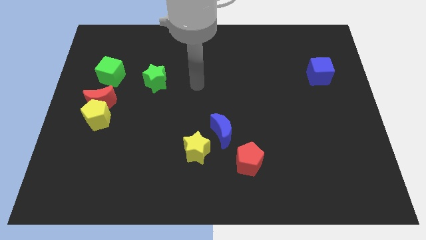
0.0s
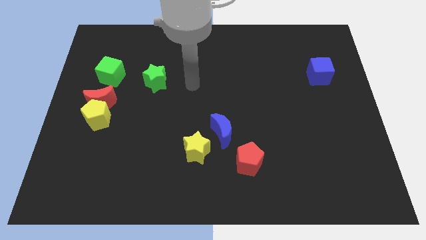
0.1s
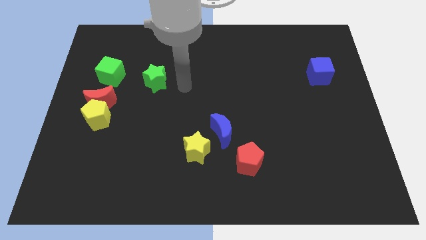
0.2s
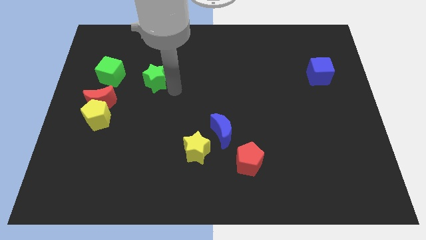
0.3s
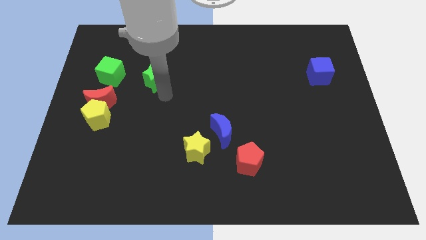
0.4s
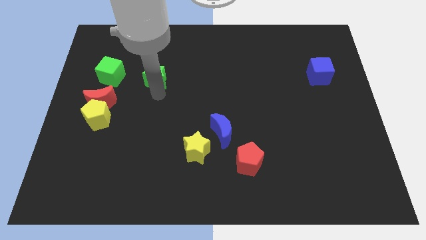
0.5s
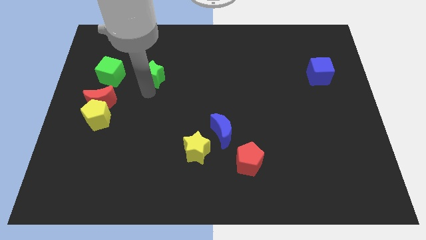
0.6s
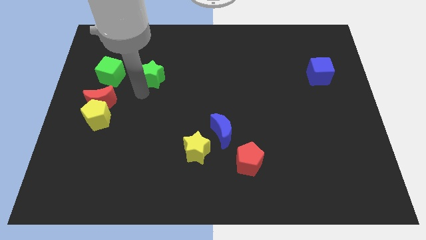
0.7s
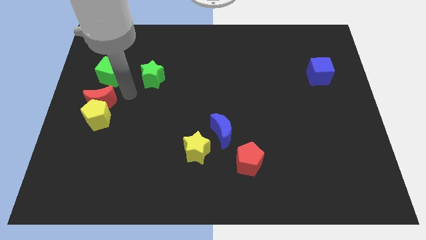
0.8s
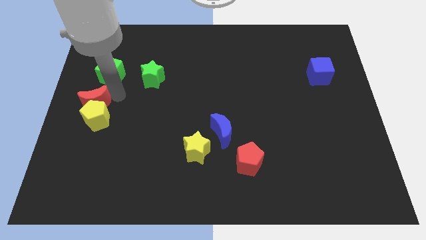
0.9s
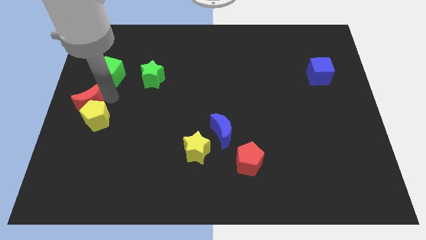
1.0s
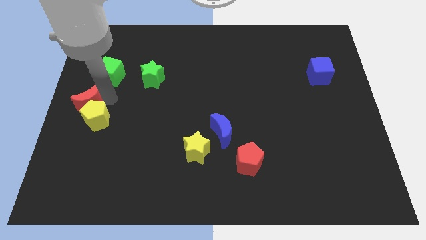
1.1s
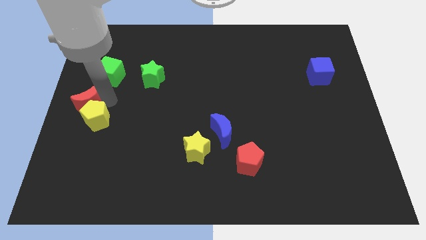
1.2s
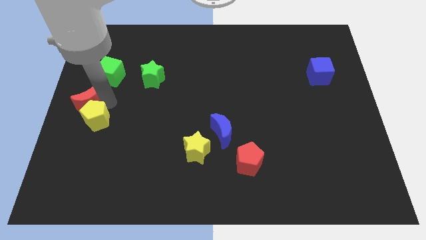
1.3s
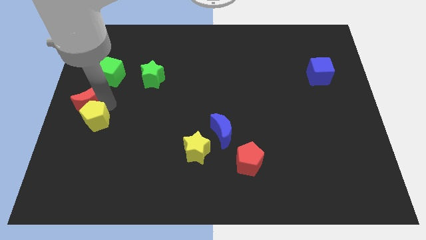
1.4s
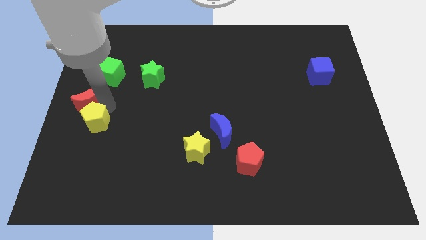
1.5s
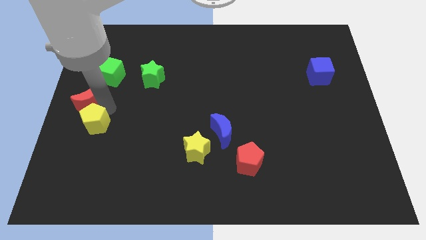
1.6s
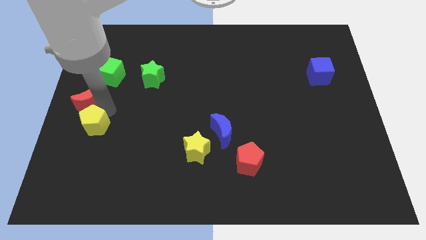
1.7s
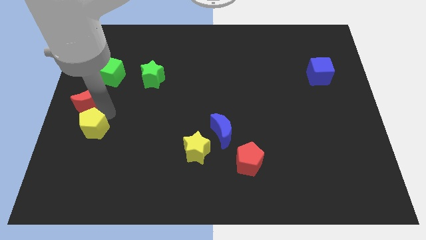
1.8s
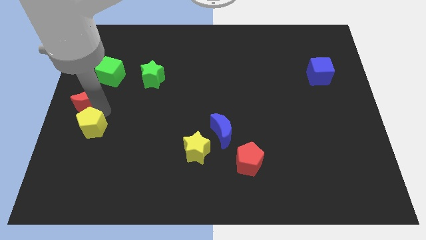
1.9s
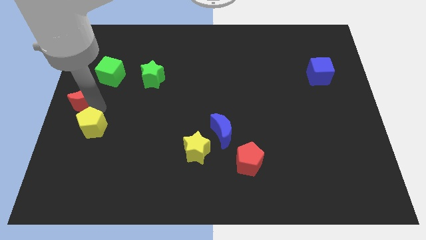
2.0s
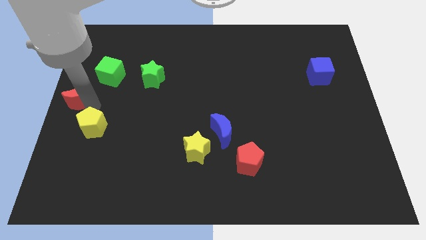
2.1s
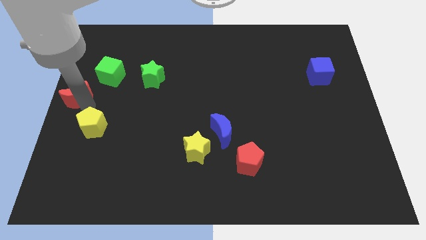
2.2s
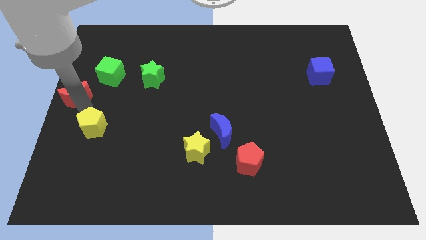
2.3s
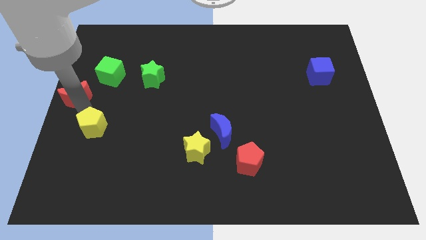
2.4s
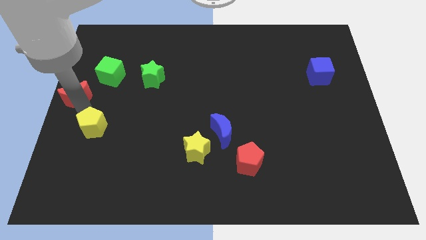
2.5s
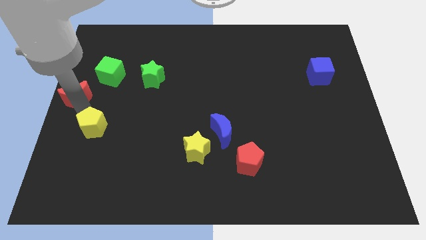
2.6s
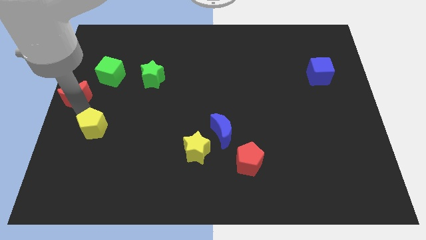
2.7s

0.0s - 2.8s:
pull the yellow pentagon apart from the red moon

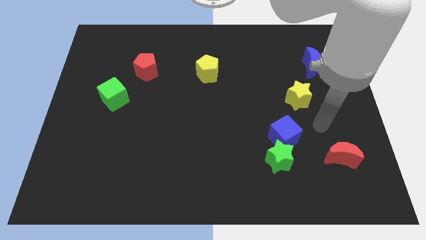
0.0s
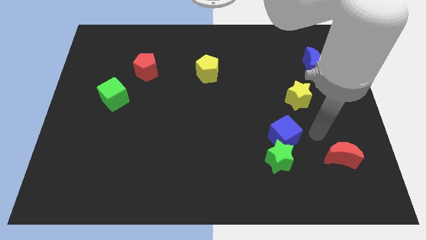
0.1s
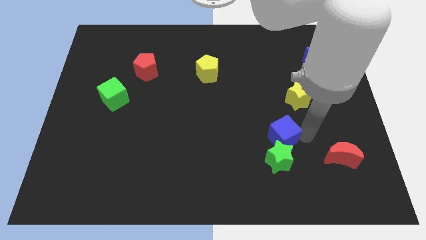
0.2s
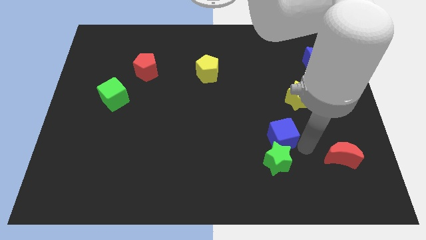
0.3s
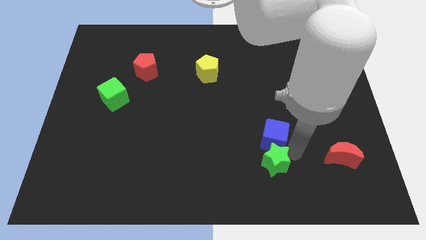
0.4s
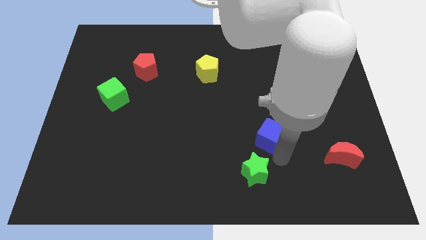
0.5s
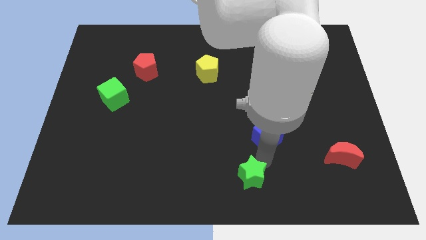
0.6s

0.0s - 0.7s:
move the blue cube away from the green star

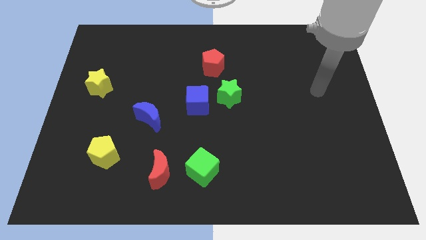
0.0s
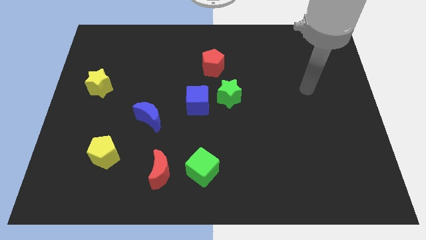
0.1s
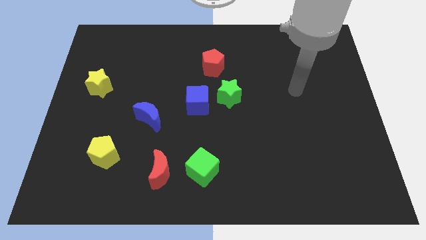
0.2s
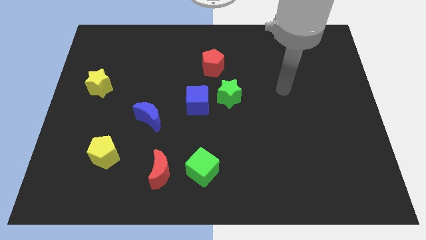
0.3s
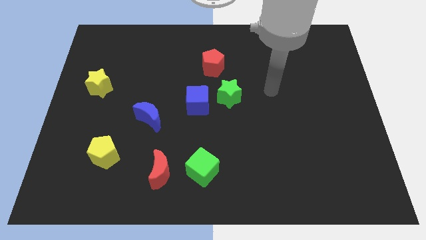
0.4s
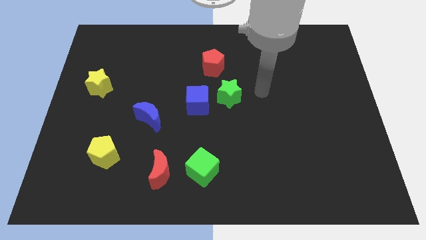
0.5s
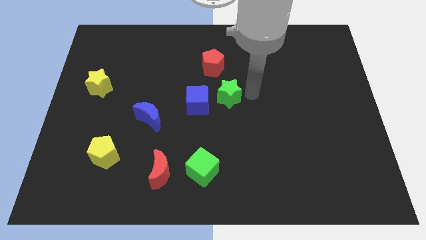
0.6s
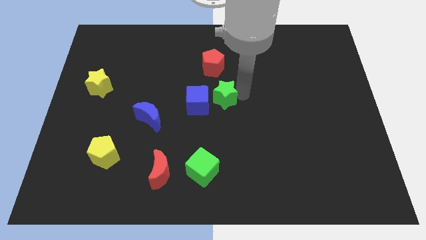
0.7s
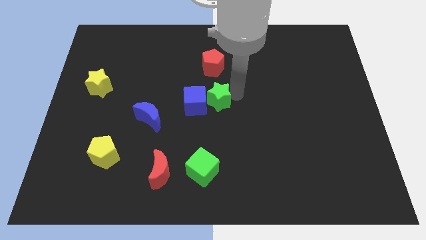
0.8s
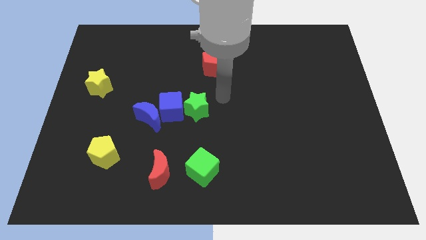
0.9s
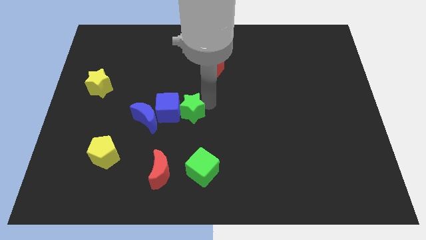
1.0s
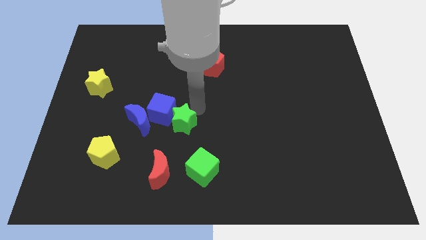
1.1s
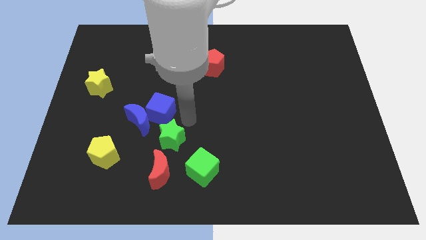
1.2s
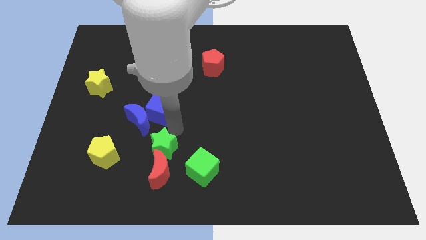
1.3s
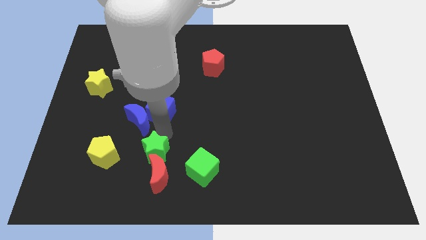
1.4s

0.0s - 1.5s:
separate the blue cube from the green star

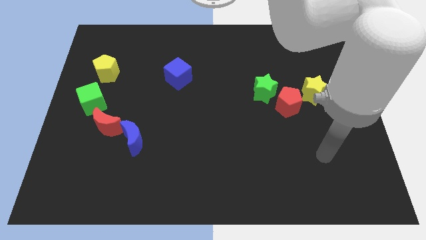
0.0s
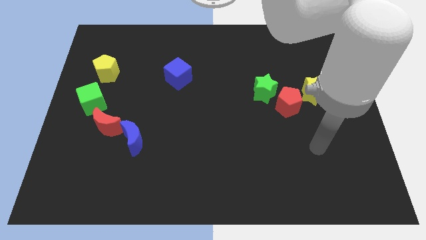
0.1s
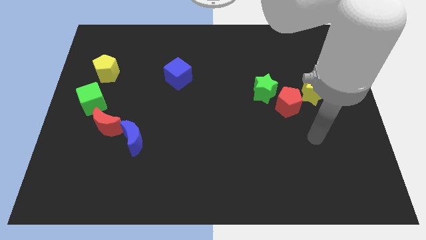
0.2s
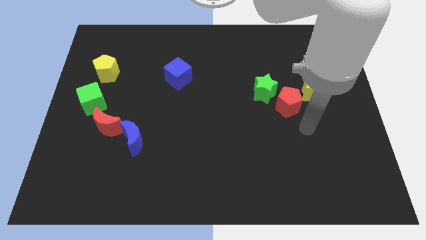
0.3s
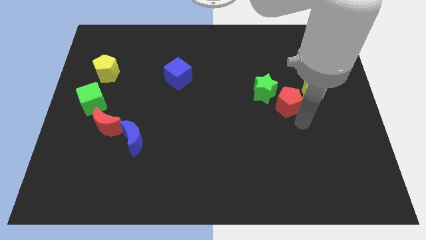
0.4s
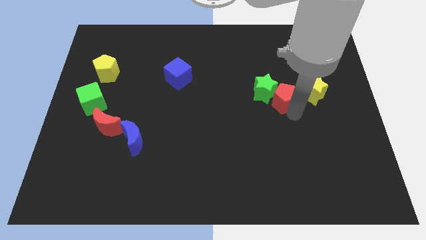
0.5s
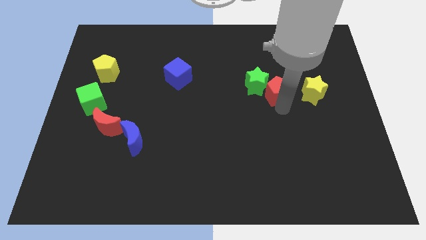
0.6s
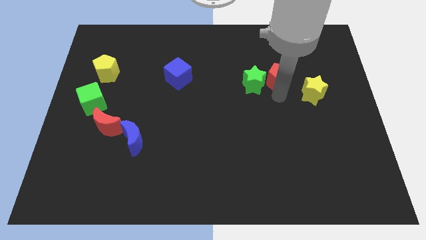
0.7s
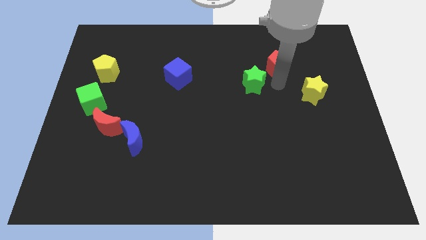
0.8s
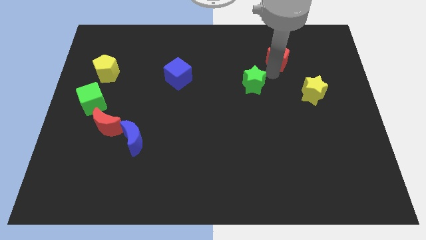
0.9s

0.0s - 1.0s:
separate the green star from the red pentagon

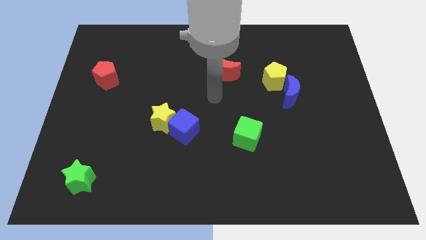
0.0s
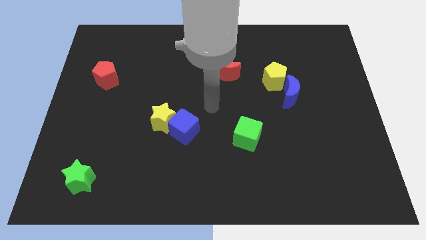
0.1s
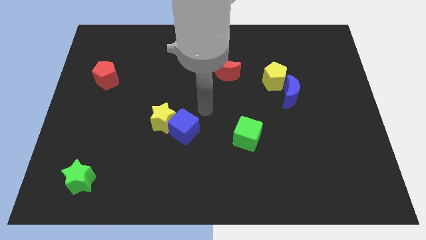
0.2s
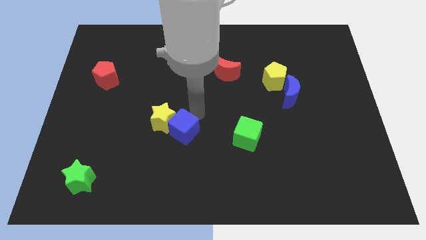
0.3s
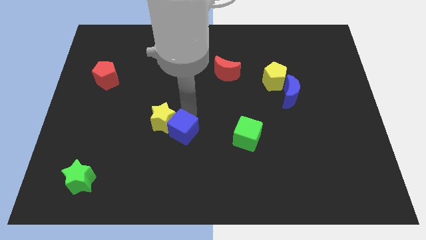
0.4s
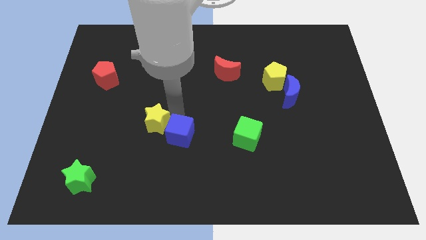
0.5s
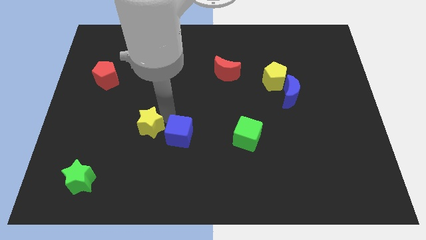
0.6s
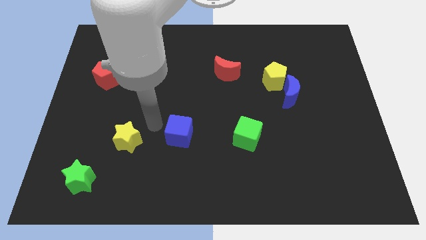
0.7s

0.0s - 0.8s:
separate the blue cube from the yellow star

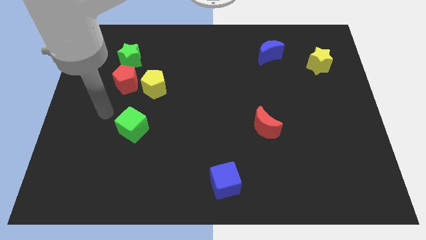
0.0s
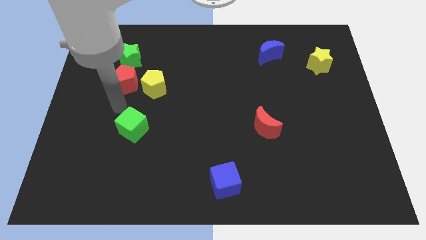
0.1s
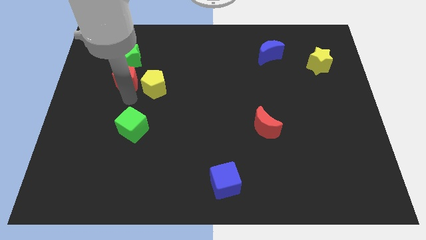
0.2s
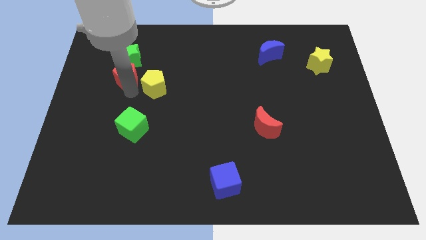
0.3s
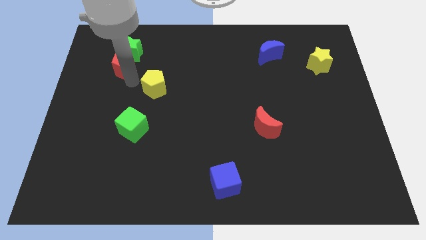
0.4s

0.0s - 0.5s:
separate the yellow pentagon from the red pentagon

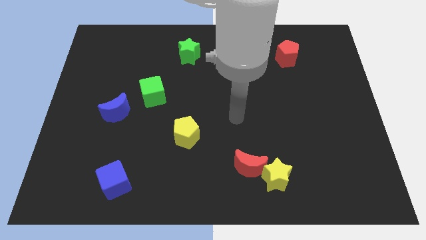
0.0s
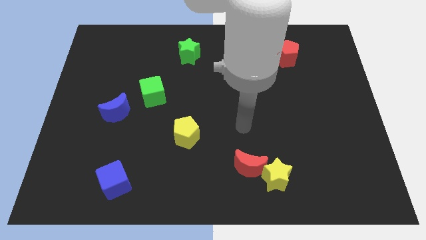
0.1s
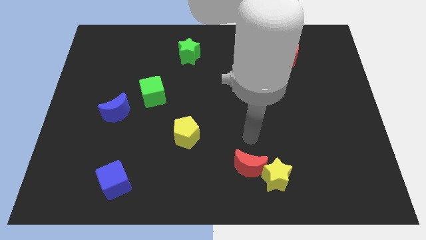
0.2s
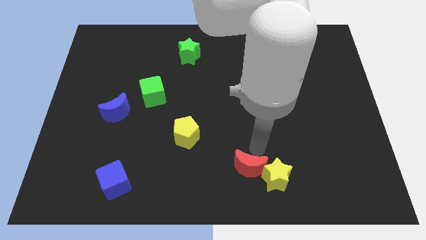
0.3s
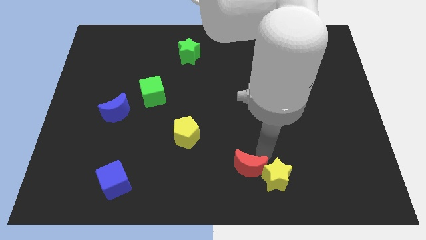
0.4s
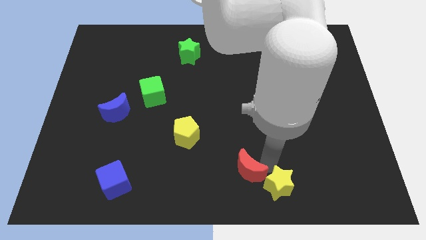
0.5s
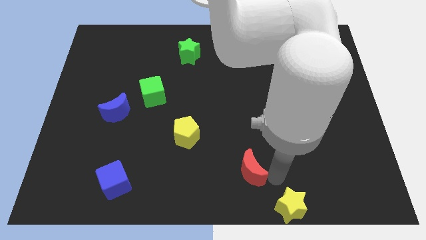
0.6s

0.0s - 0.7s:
pull the red moon apart from the yellow star

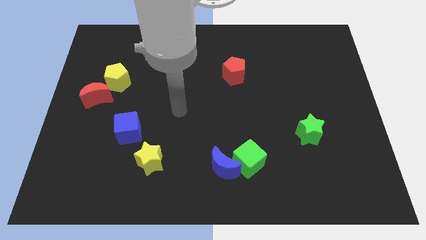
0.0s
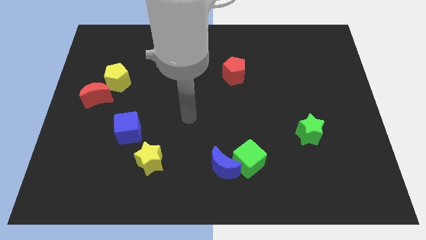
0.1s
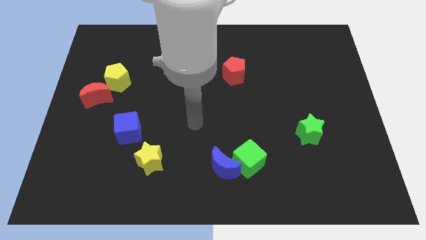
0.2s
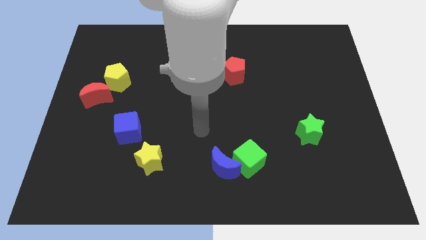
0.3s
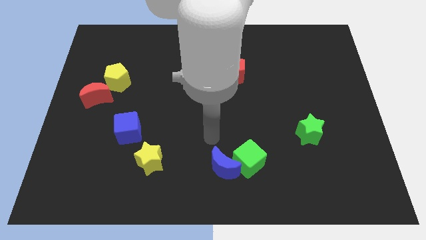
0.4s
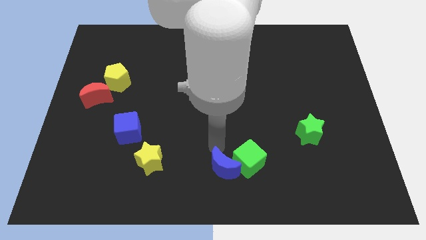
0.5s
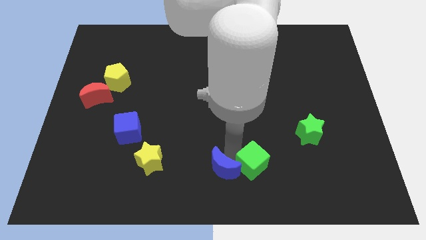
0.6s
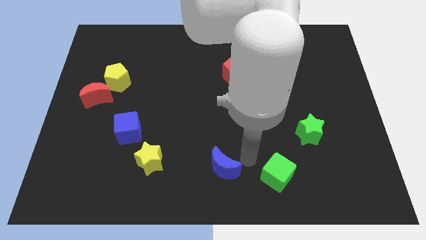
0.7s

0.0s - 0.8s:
move the blue moon away from the green cube

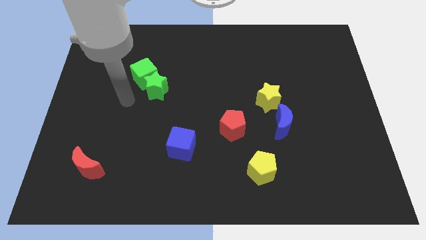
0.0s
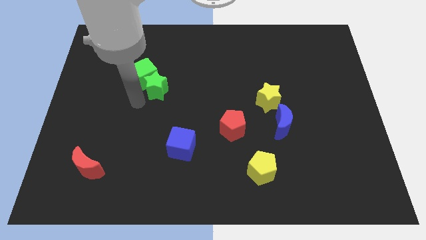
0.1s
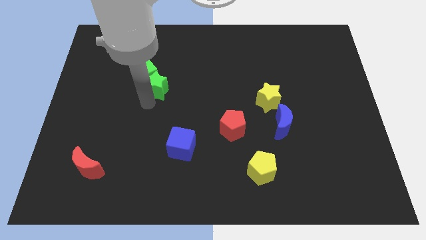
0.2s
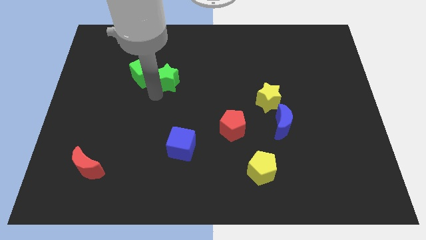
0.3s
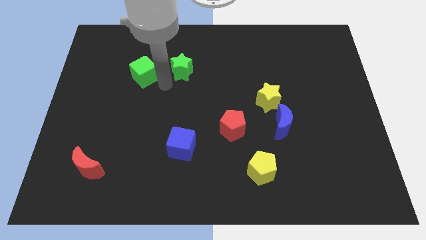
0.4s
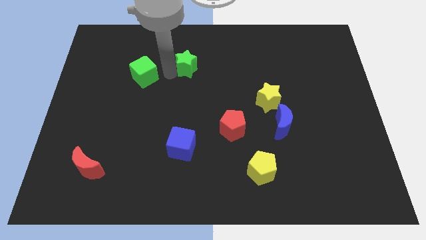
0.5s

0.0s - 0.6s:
separate the green cube from the green star
